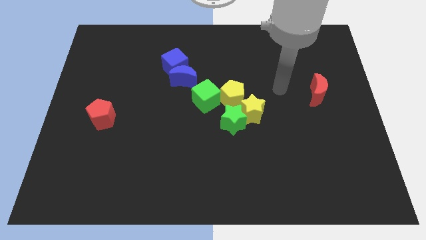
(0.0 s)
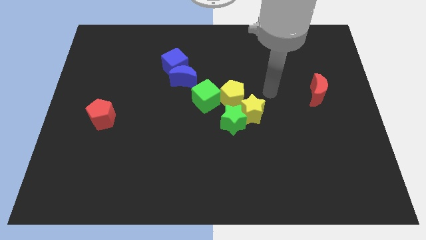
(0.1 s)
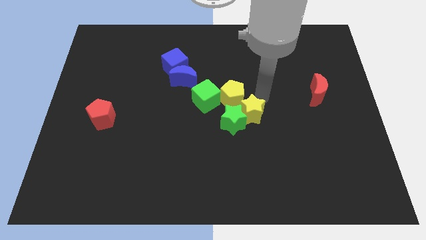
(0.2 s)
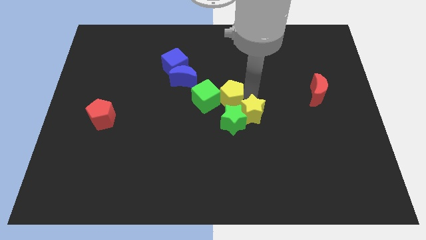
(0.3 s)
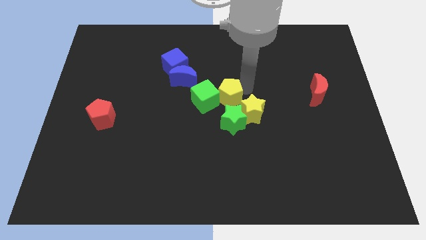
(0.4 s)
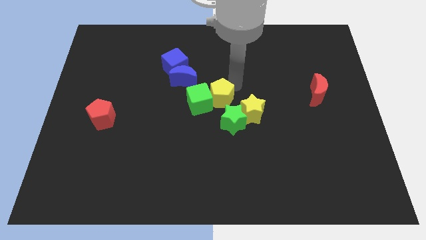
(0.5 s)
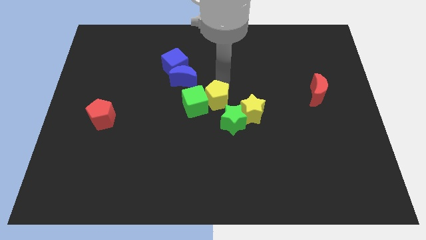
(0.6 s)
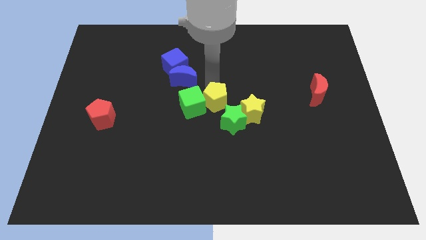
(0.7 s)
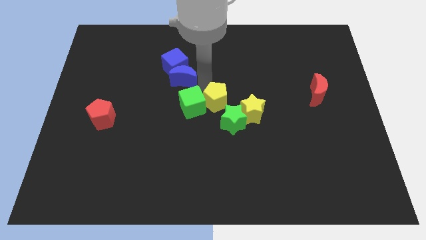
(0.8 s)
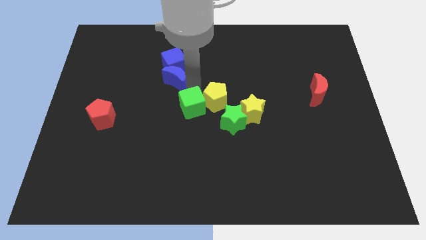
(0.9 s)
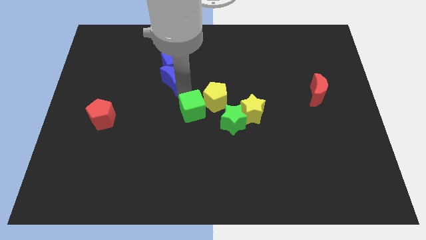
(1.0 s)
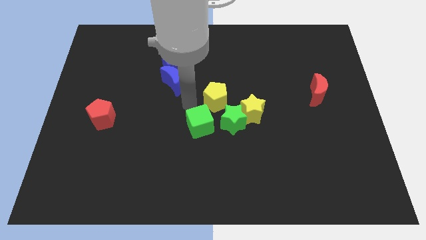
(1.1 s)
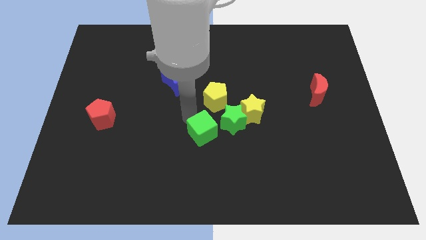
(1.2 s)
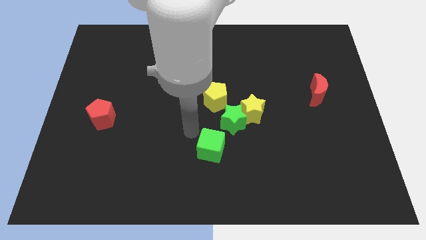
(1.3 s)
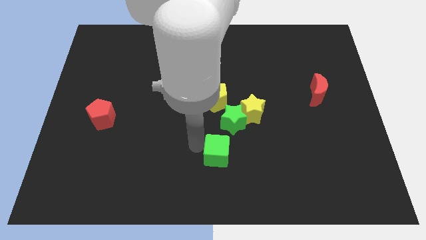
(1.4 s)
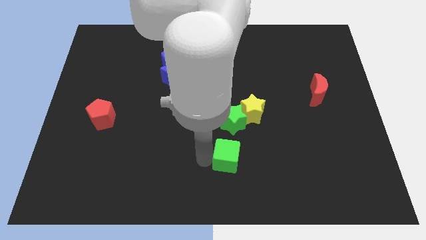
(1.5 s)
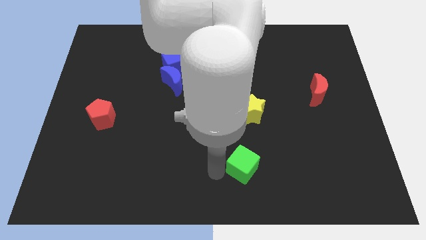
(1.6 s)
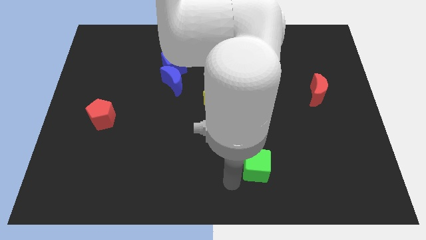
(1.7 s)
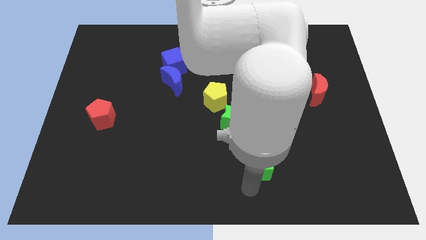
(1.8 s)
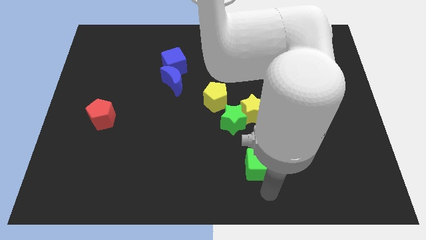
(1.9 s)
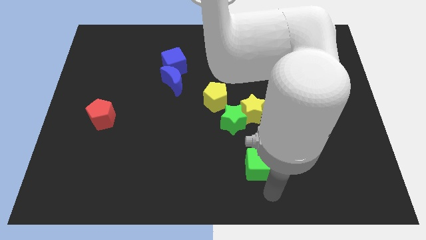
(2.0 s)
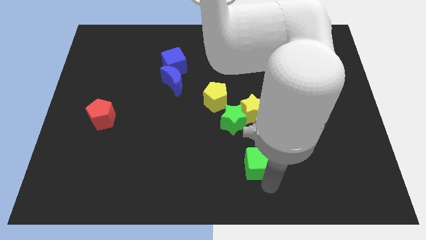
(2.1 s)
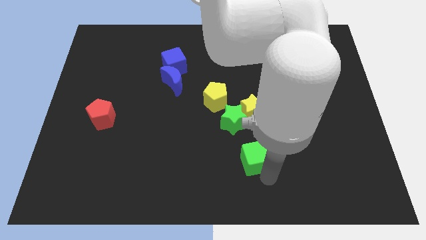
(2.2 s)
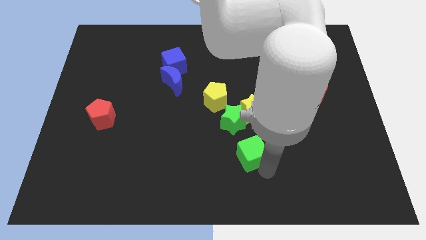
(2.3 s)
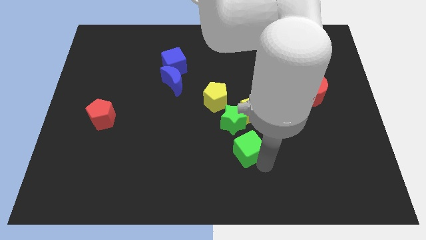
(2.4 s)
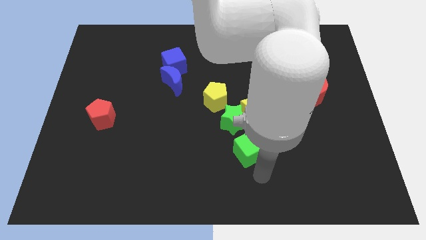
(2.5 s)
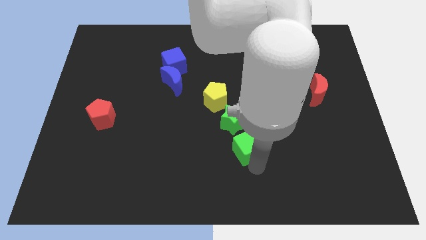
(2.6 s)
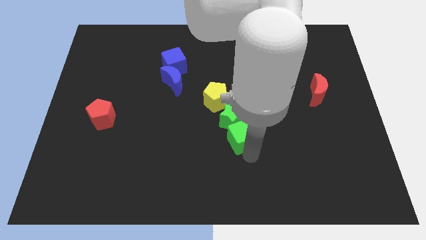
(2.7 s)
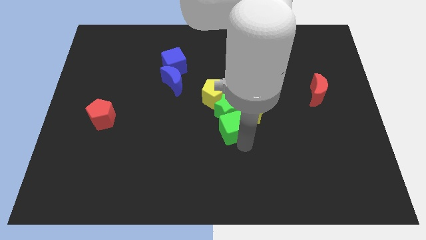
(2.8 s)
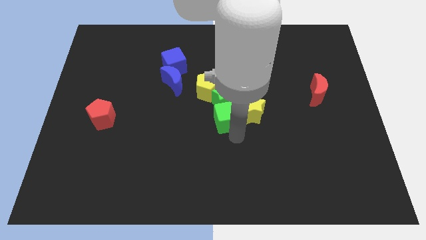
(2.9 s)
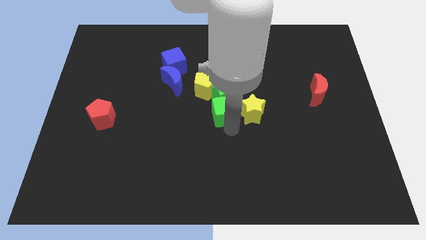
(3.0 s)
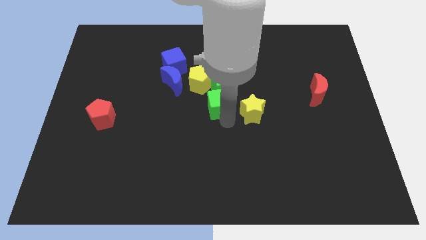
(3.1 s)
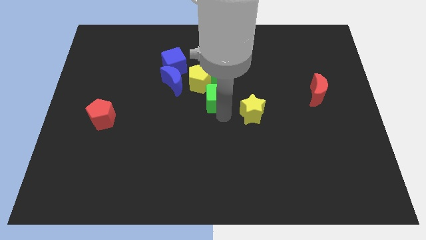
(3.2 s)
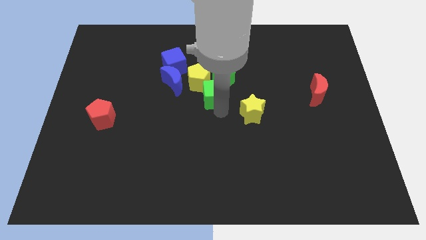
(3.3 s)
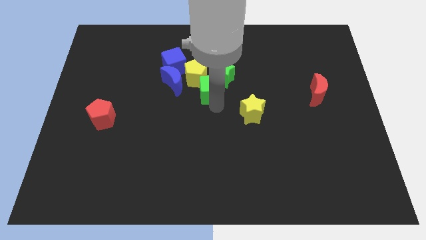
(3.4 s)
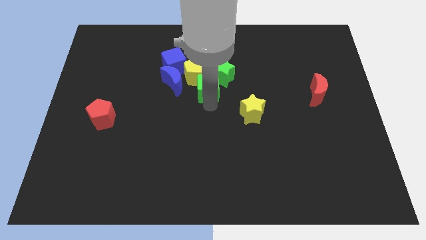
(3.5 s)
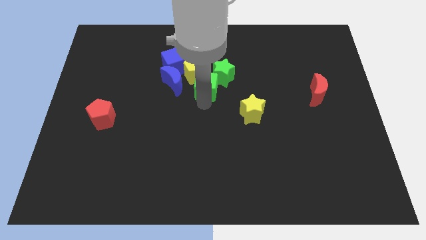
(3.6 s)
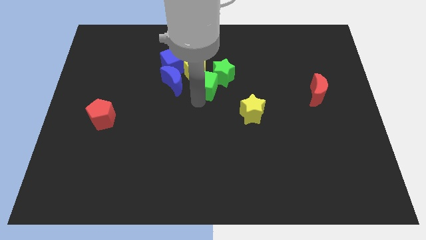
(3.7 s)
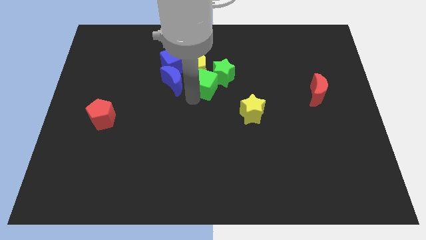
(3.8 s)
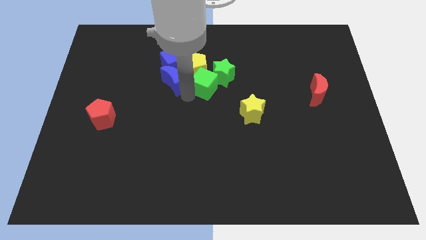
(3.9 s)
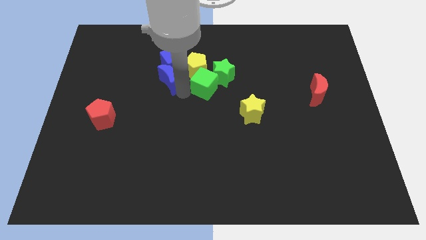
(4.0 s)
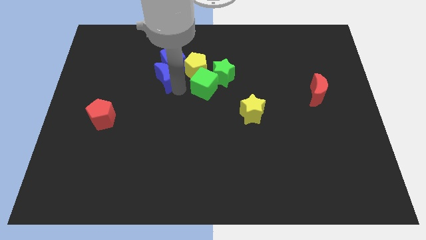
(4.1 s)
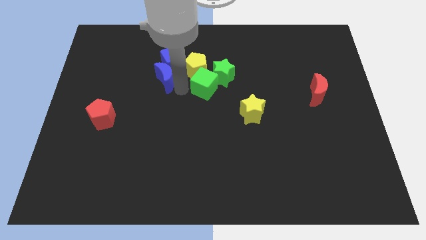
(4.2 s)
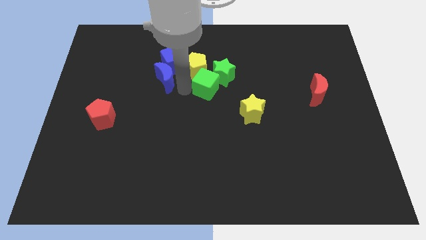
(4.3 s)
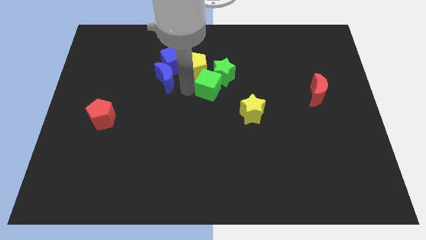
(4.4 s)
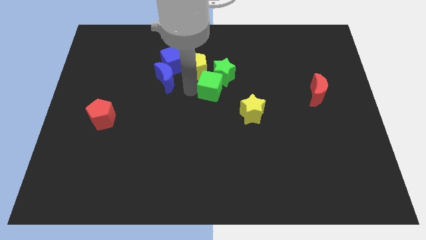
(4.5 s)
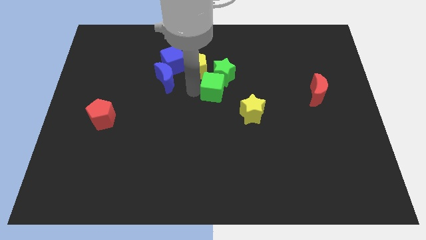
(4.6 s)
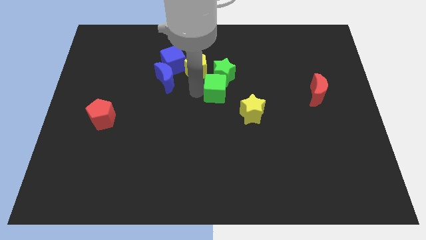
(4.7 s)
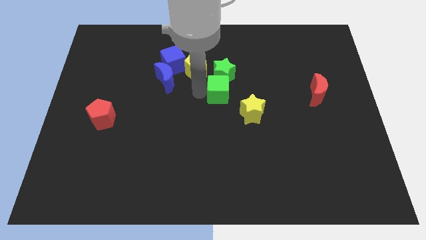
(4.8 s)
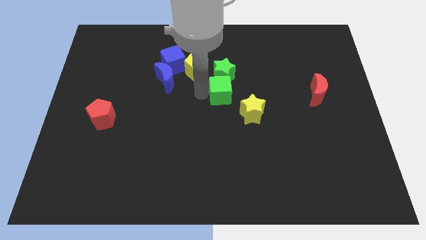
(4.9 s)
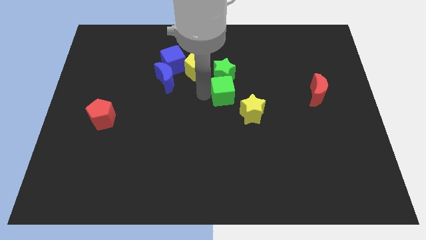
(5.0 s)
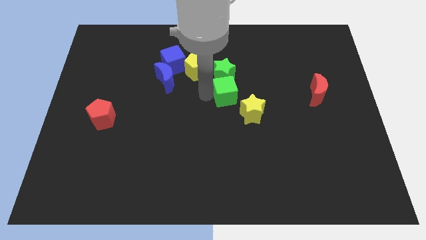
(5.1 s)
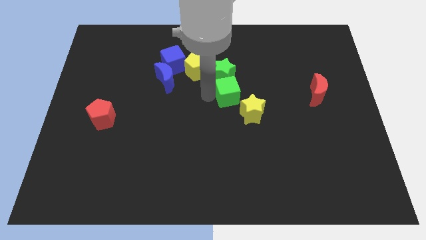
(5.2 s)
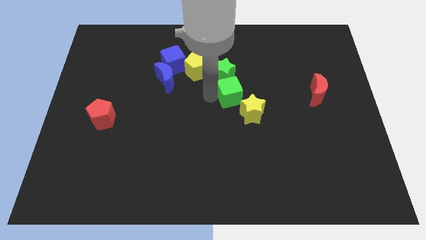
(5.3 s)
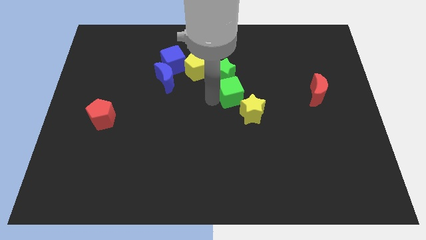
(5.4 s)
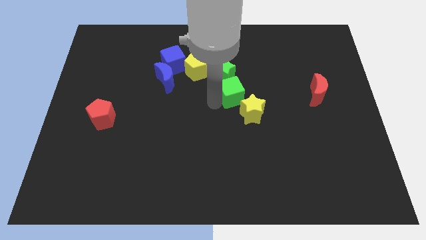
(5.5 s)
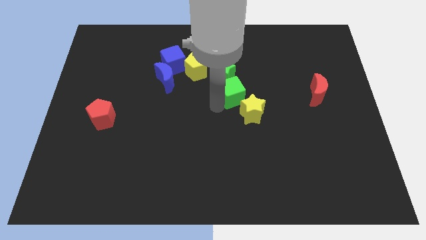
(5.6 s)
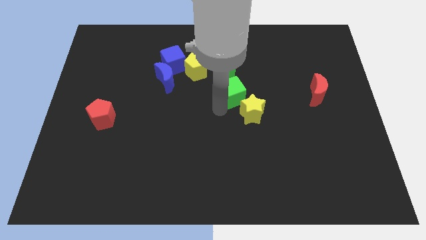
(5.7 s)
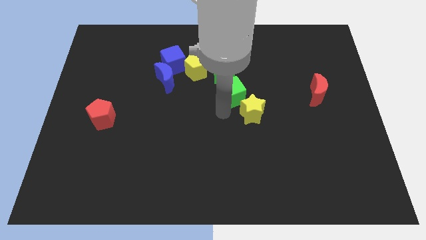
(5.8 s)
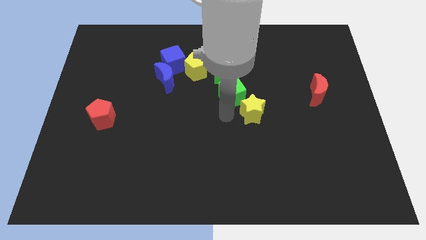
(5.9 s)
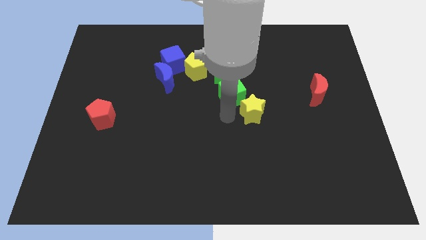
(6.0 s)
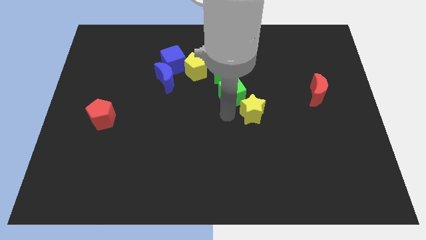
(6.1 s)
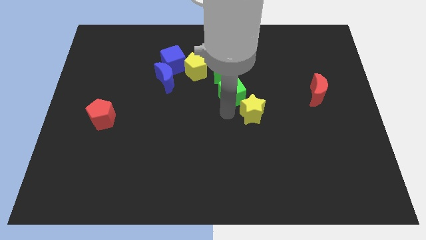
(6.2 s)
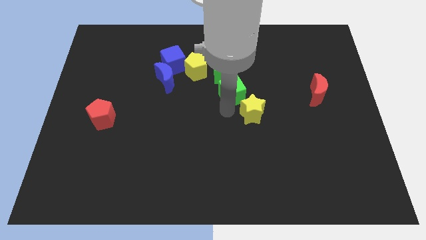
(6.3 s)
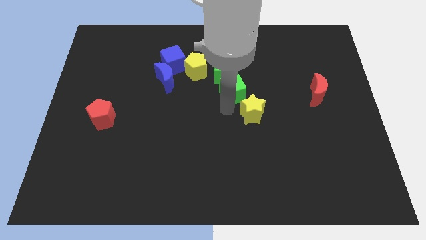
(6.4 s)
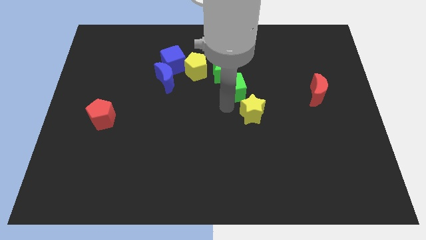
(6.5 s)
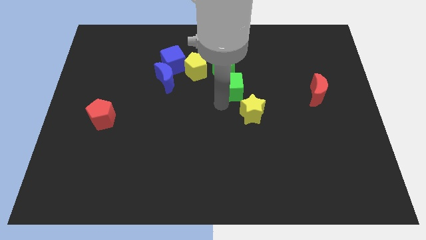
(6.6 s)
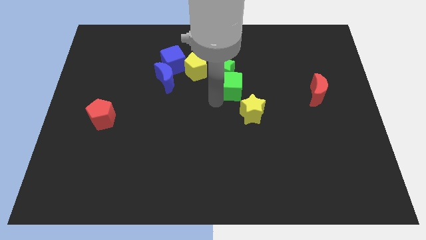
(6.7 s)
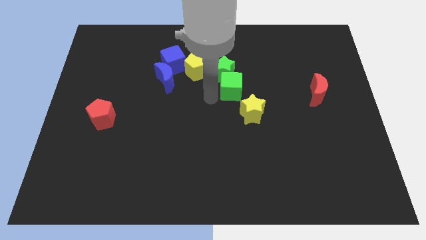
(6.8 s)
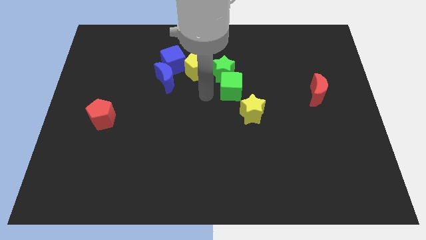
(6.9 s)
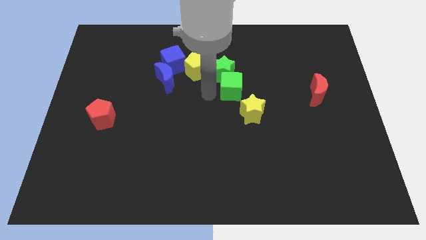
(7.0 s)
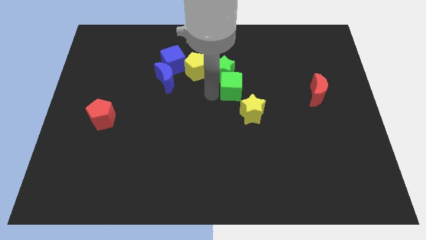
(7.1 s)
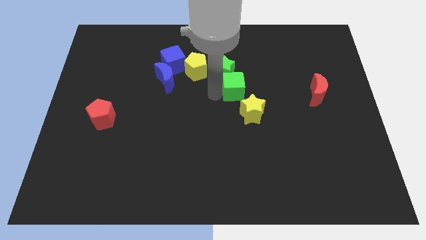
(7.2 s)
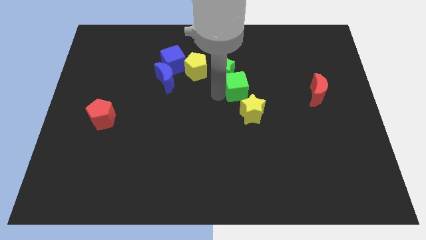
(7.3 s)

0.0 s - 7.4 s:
slide the green cube right a bit

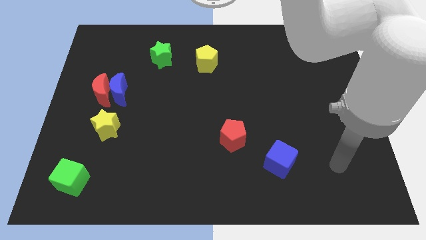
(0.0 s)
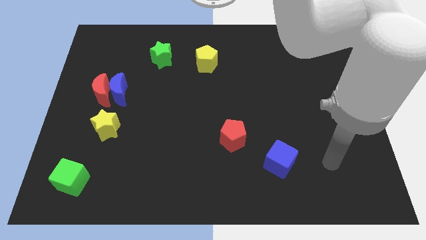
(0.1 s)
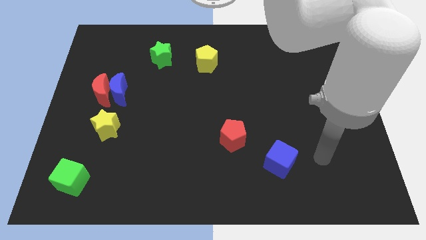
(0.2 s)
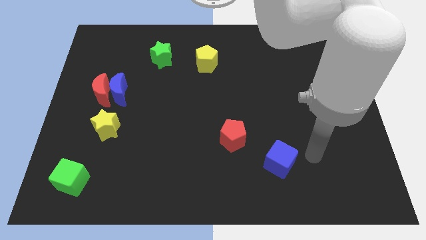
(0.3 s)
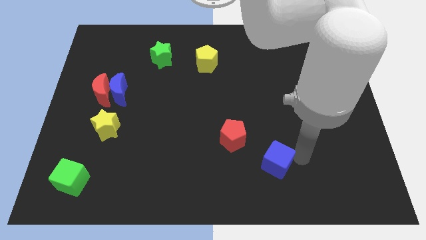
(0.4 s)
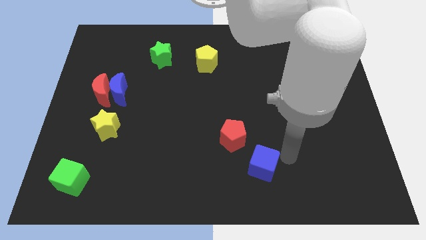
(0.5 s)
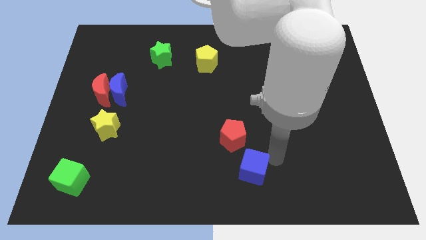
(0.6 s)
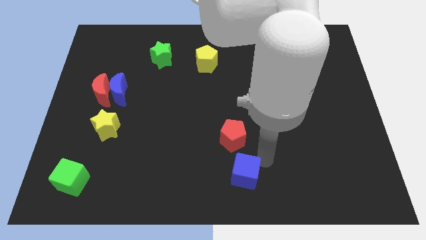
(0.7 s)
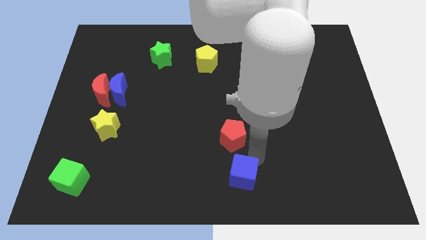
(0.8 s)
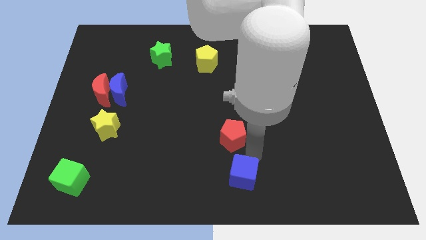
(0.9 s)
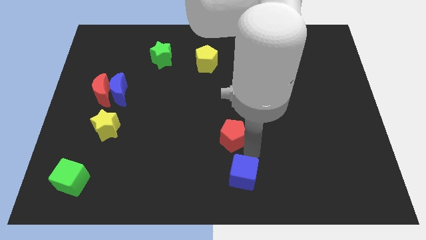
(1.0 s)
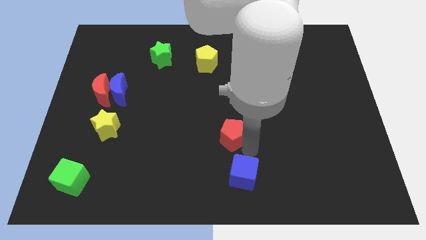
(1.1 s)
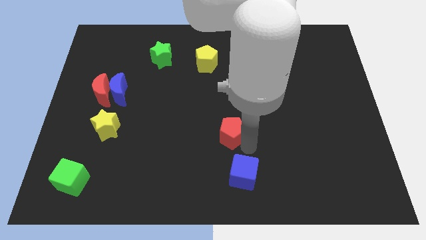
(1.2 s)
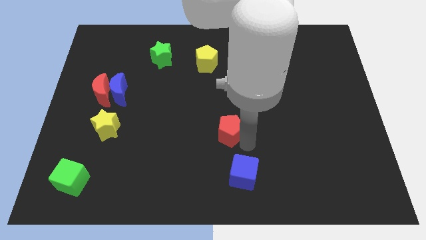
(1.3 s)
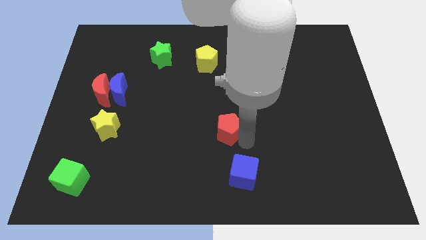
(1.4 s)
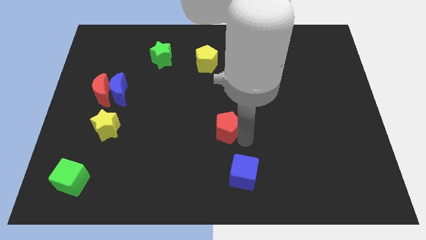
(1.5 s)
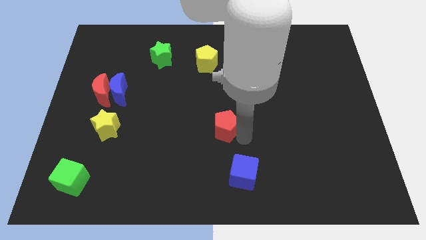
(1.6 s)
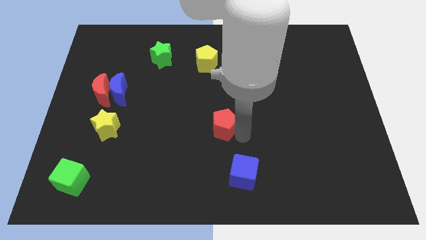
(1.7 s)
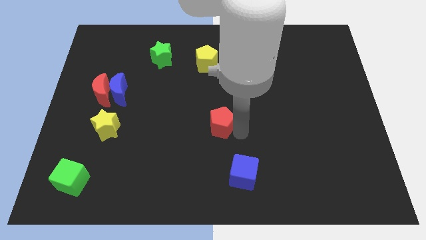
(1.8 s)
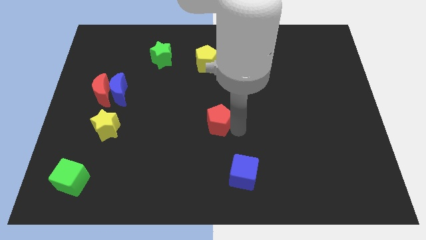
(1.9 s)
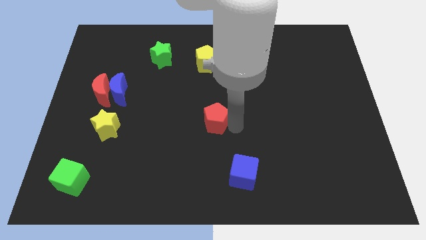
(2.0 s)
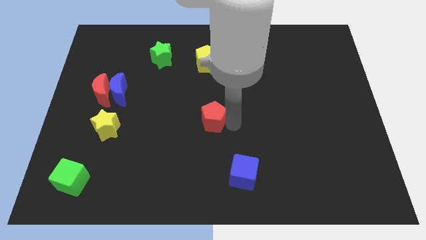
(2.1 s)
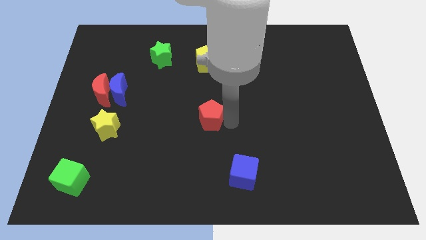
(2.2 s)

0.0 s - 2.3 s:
move the red pentagon up and to the left a little
